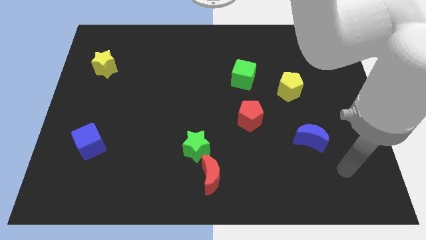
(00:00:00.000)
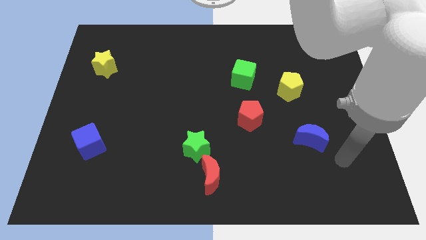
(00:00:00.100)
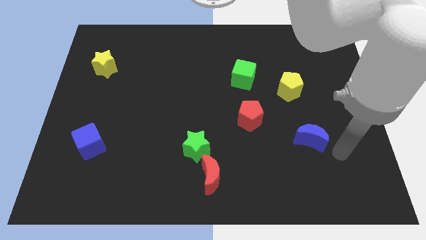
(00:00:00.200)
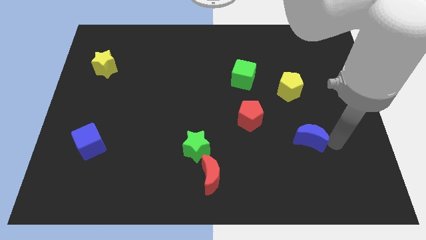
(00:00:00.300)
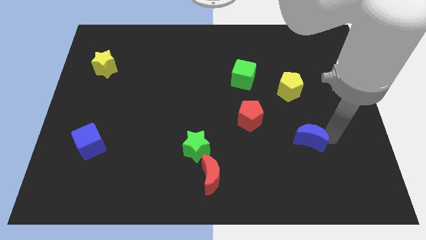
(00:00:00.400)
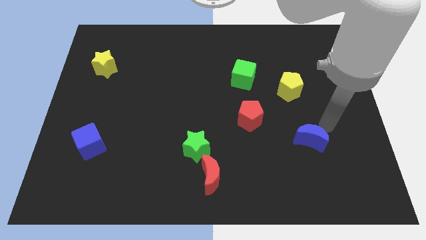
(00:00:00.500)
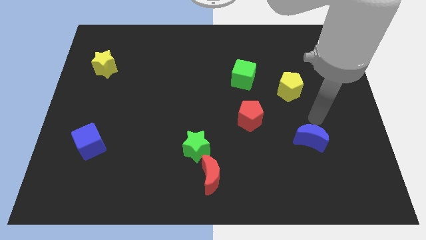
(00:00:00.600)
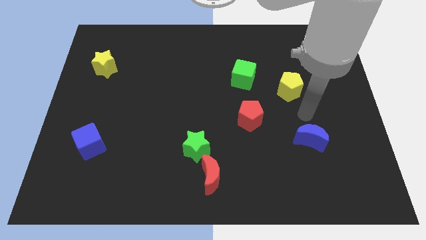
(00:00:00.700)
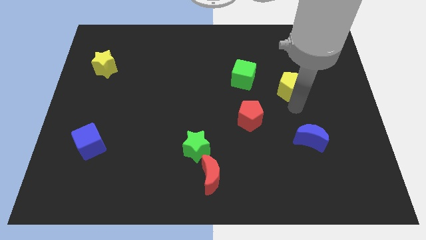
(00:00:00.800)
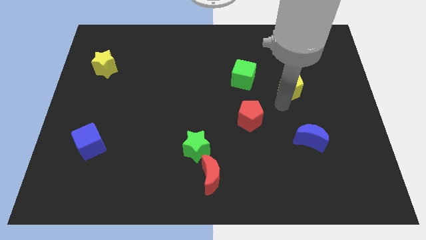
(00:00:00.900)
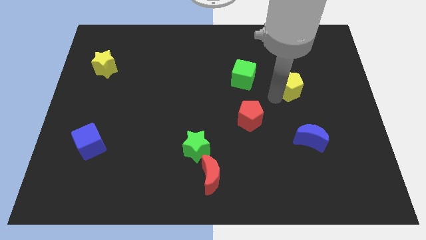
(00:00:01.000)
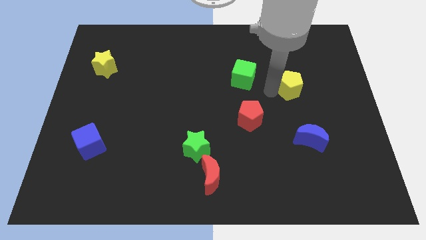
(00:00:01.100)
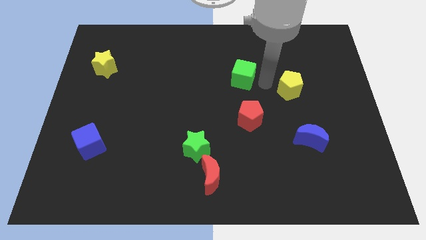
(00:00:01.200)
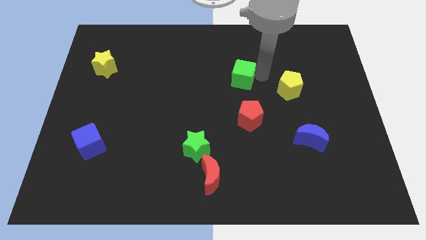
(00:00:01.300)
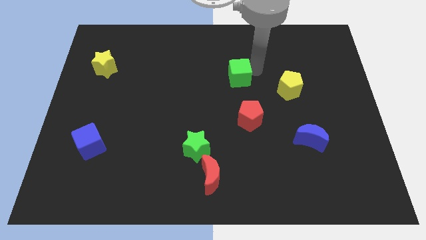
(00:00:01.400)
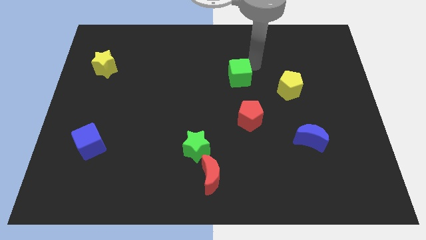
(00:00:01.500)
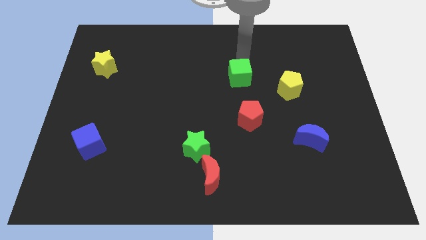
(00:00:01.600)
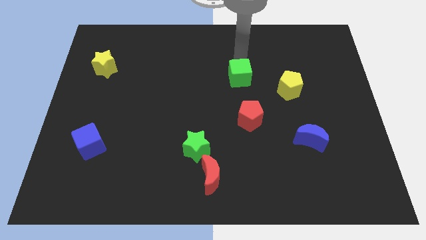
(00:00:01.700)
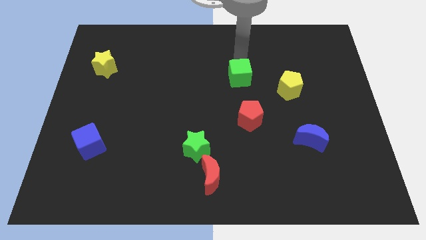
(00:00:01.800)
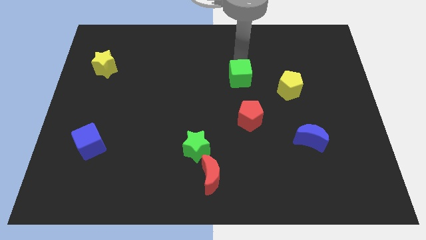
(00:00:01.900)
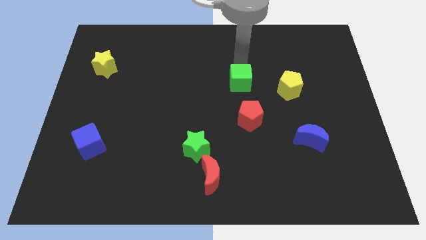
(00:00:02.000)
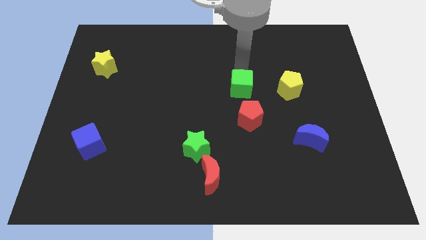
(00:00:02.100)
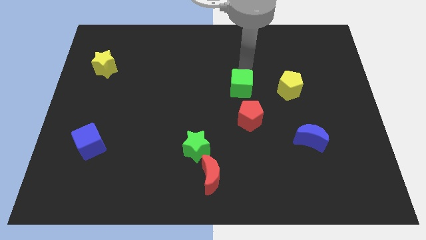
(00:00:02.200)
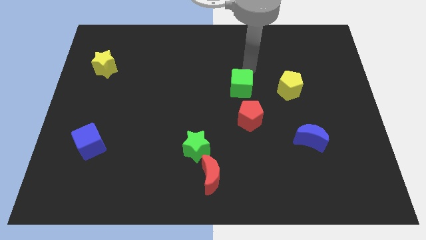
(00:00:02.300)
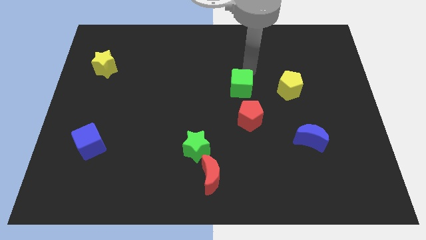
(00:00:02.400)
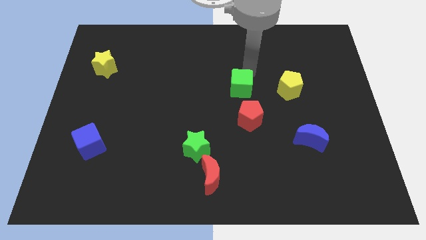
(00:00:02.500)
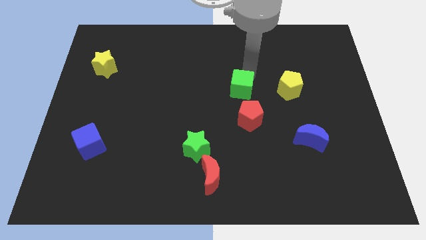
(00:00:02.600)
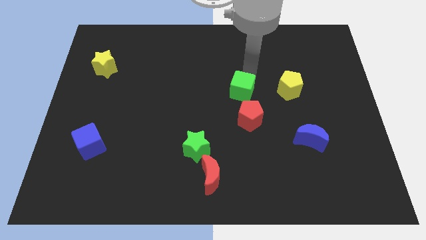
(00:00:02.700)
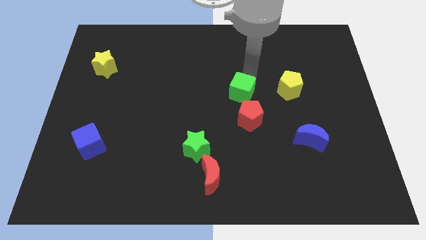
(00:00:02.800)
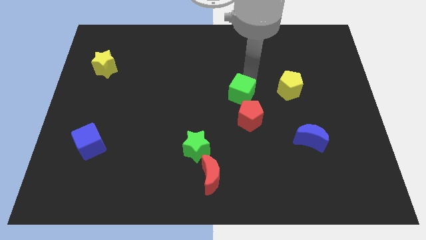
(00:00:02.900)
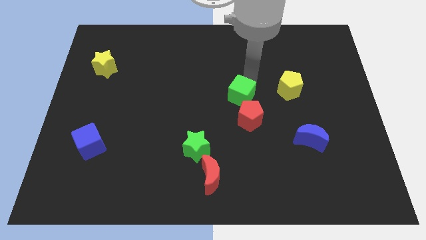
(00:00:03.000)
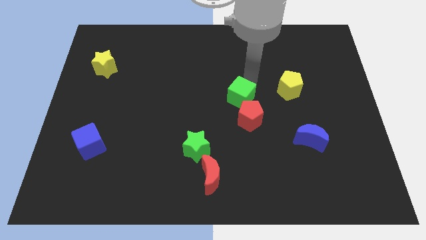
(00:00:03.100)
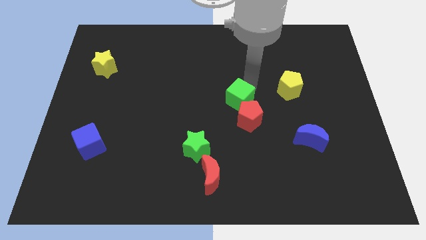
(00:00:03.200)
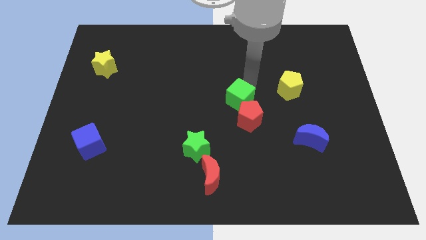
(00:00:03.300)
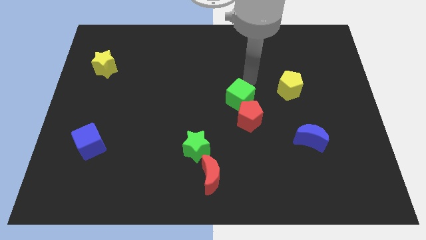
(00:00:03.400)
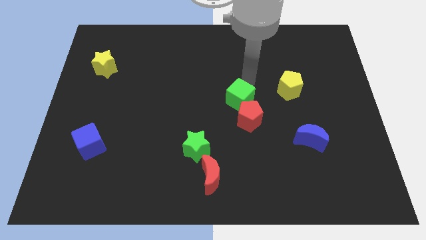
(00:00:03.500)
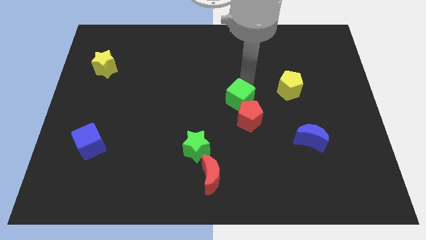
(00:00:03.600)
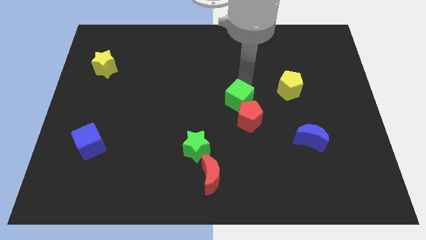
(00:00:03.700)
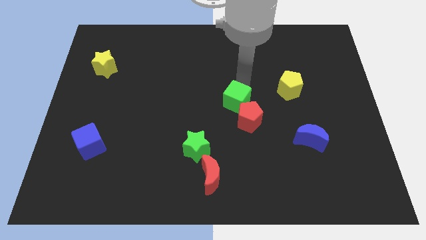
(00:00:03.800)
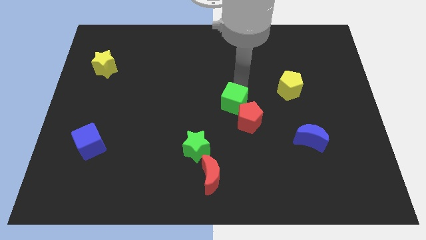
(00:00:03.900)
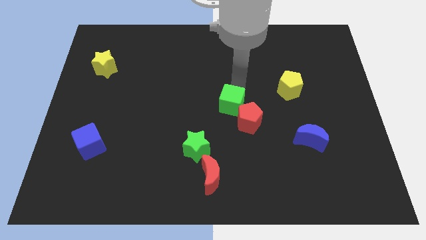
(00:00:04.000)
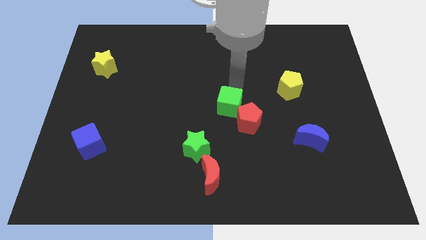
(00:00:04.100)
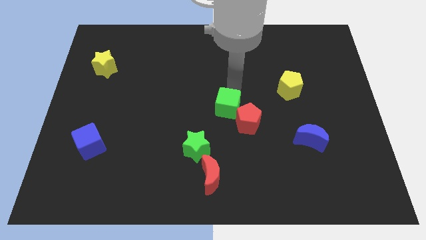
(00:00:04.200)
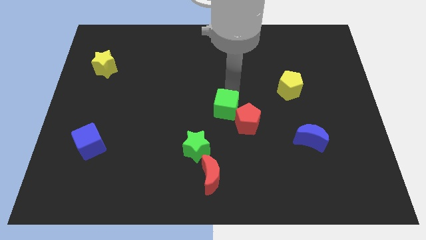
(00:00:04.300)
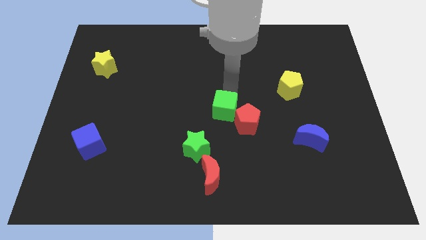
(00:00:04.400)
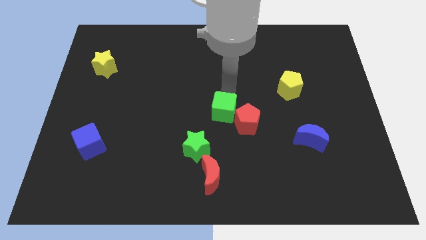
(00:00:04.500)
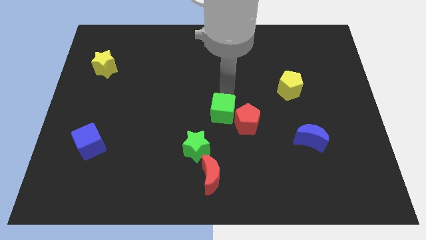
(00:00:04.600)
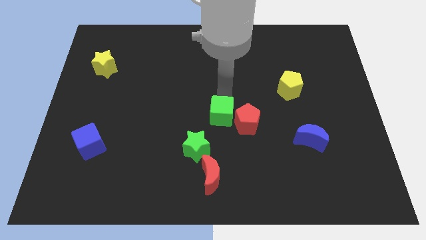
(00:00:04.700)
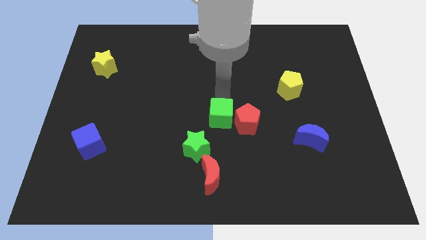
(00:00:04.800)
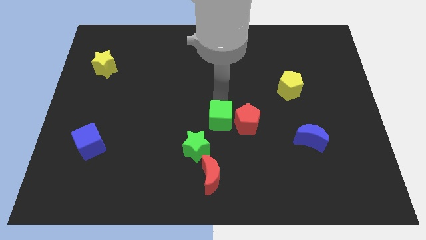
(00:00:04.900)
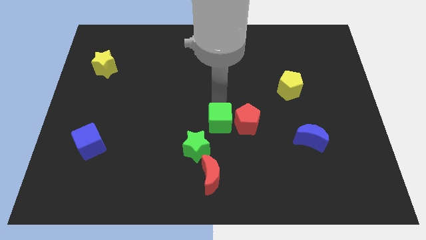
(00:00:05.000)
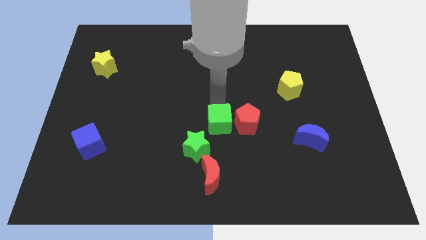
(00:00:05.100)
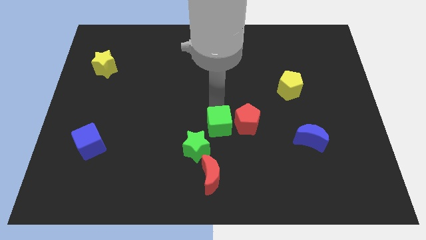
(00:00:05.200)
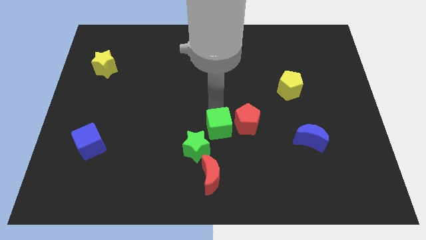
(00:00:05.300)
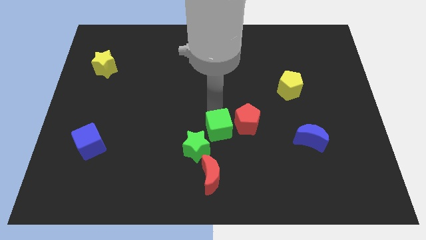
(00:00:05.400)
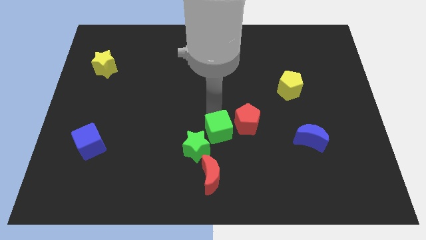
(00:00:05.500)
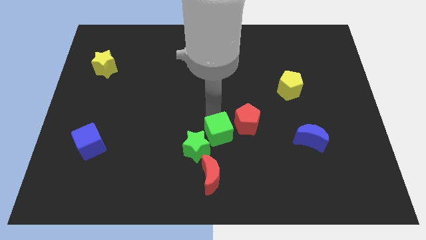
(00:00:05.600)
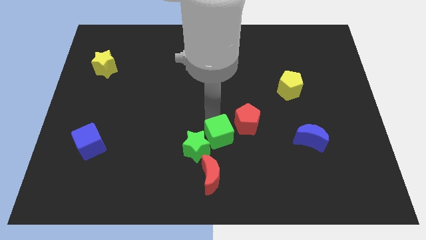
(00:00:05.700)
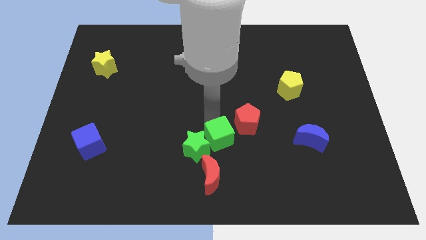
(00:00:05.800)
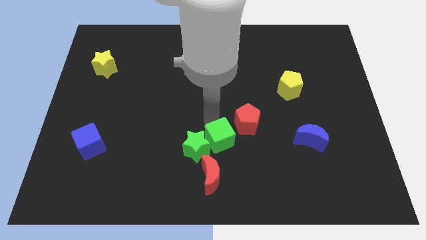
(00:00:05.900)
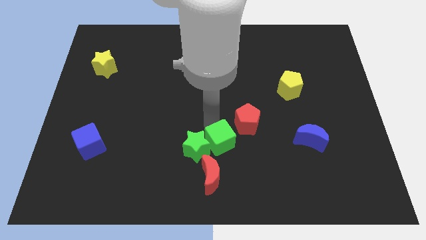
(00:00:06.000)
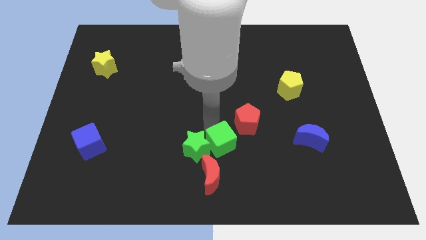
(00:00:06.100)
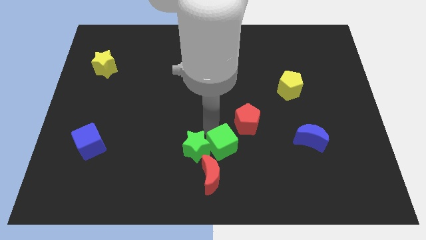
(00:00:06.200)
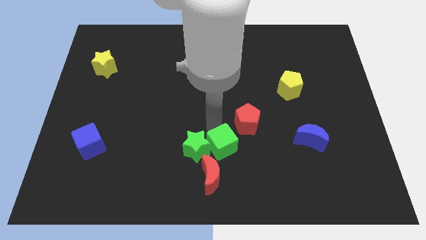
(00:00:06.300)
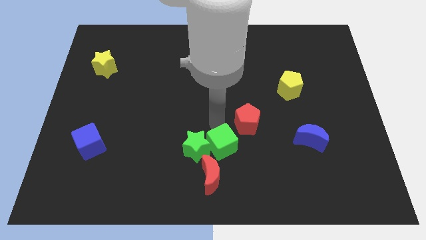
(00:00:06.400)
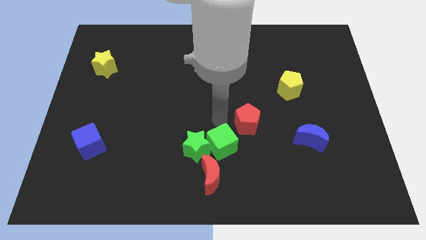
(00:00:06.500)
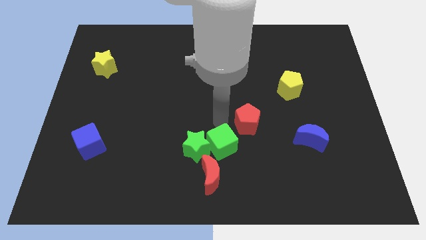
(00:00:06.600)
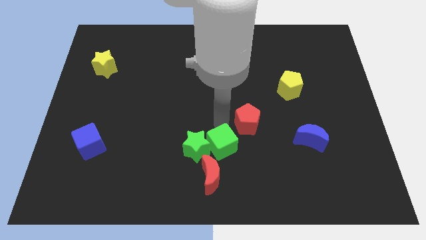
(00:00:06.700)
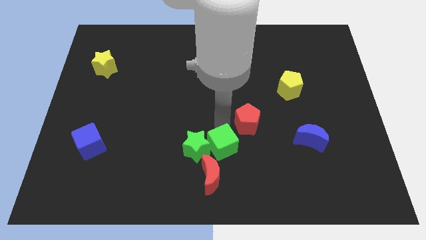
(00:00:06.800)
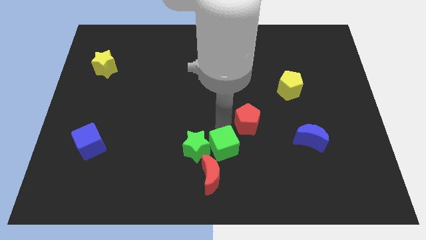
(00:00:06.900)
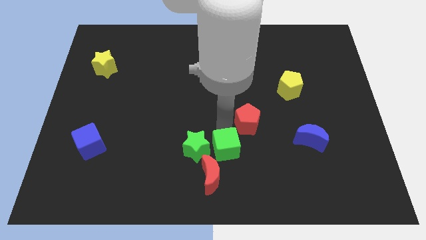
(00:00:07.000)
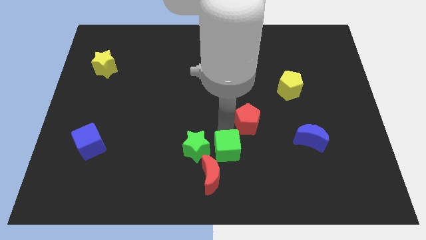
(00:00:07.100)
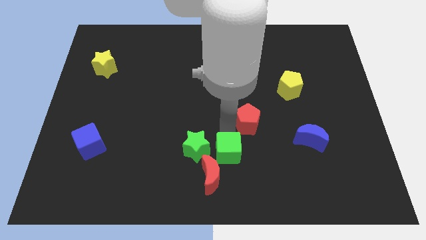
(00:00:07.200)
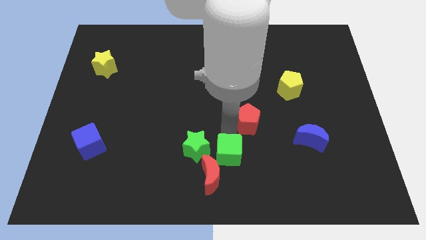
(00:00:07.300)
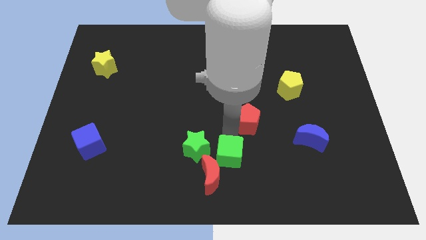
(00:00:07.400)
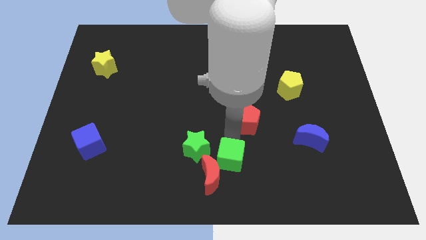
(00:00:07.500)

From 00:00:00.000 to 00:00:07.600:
move the green cube to the red moon
